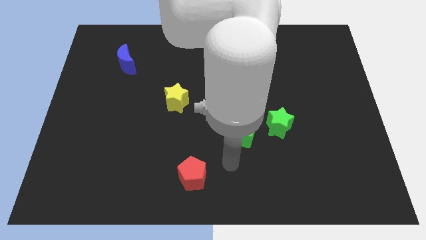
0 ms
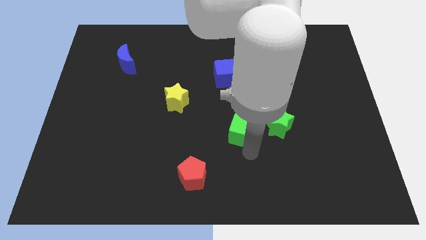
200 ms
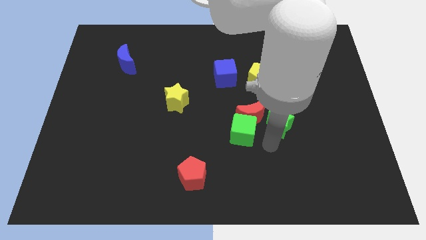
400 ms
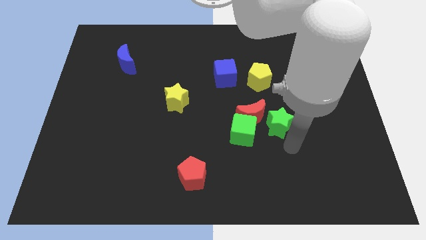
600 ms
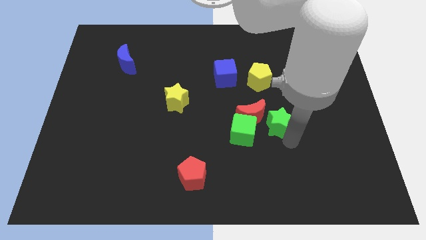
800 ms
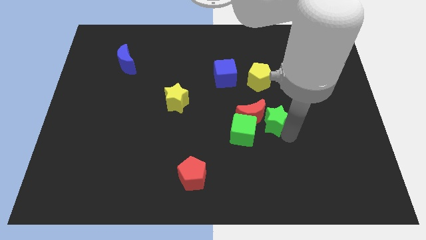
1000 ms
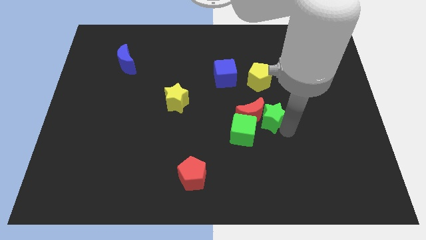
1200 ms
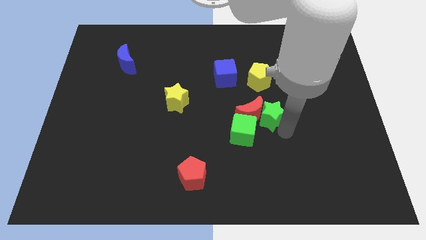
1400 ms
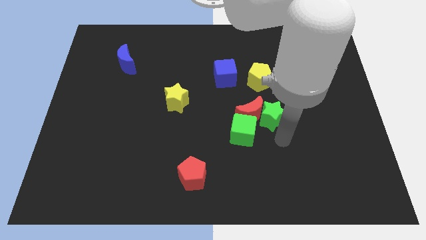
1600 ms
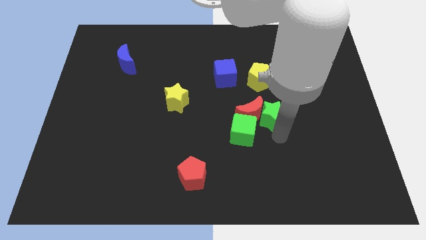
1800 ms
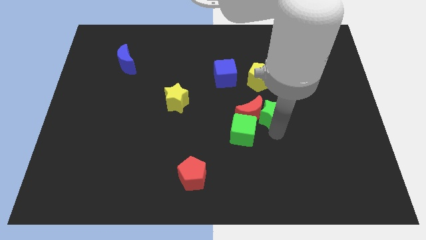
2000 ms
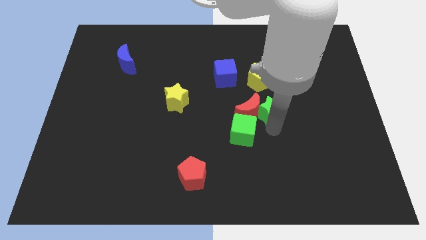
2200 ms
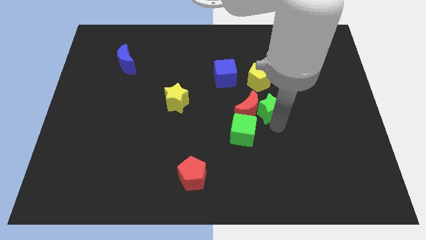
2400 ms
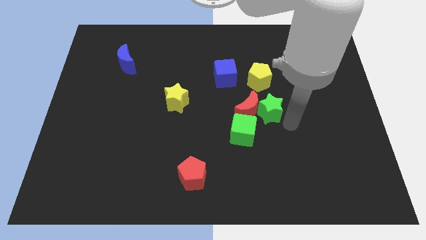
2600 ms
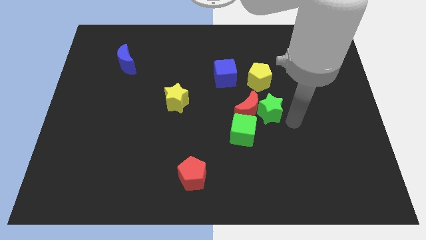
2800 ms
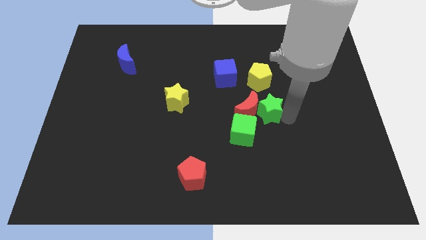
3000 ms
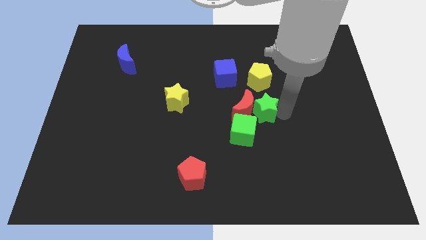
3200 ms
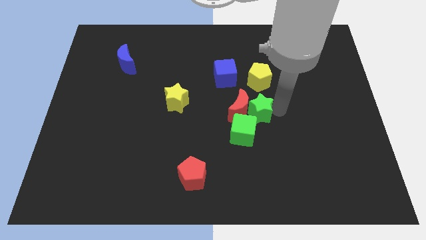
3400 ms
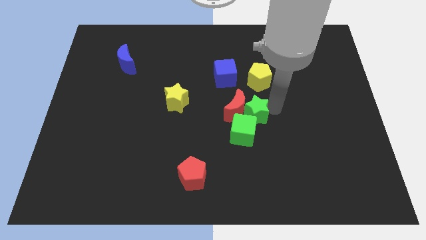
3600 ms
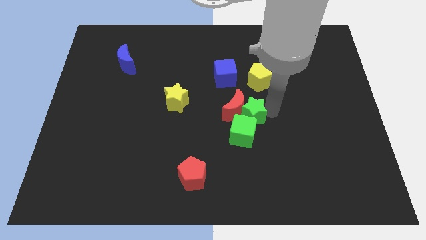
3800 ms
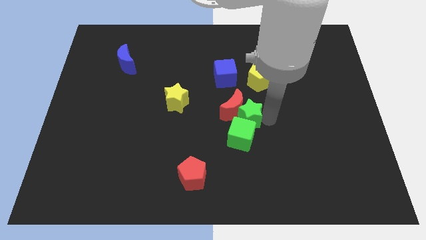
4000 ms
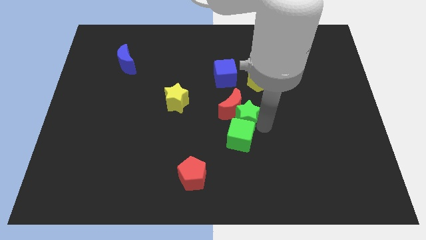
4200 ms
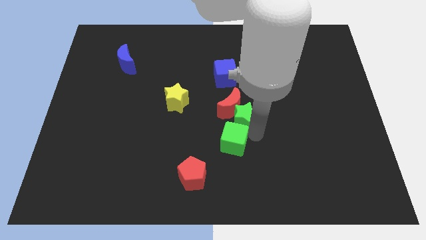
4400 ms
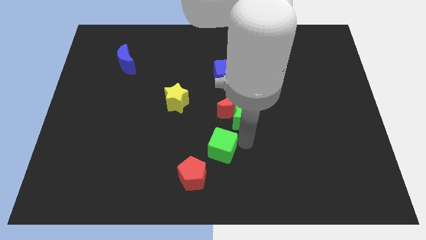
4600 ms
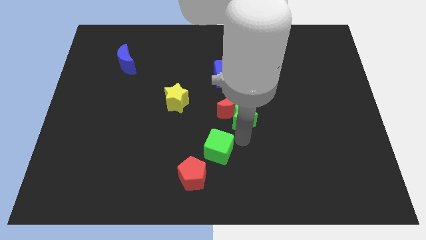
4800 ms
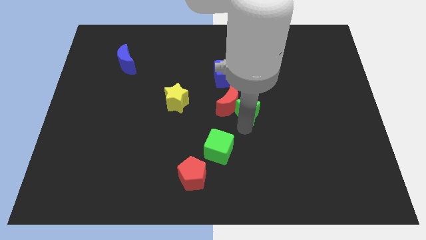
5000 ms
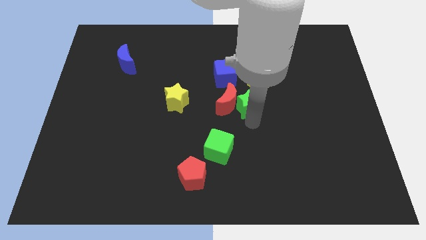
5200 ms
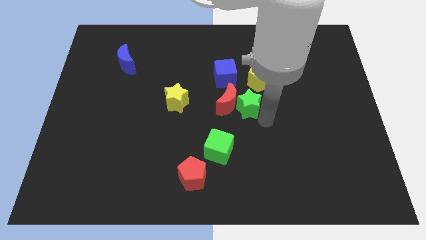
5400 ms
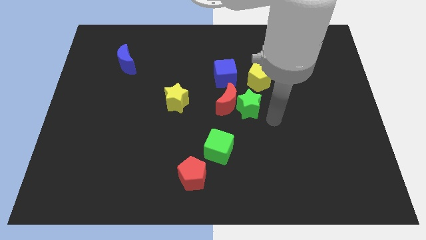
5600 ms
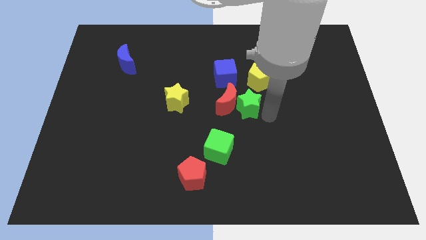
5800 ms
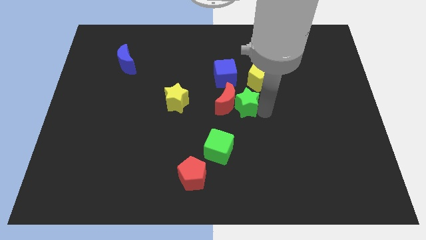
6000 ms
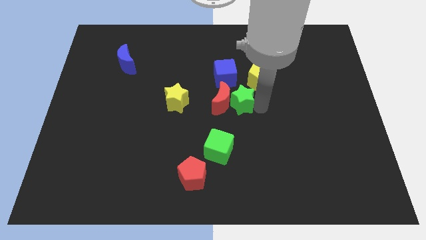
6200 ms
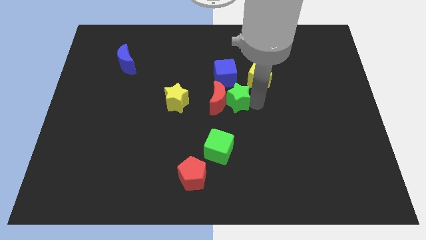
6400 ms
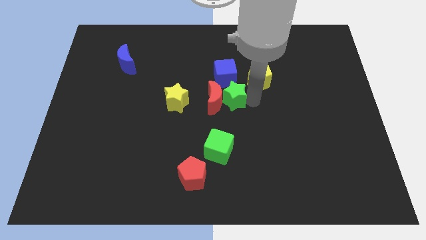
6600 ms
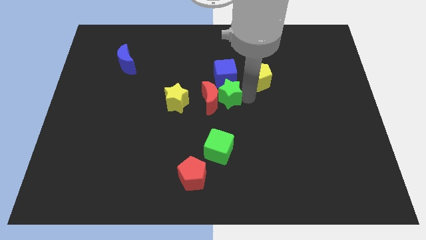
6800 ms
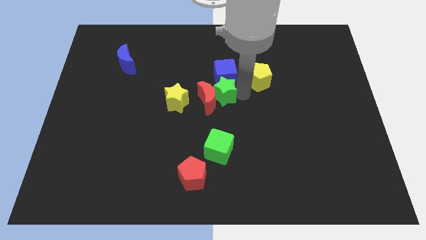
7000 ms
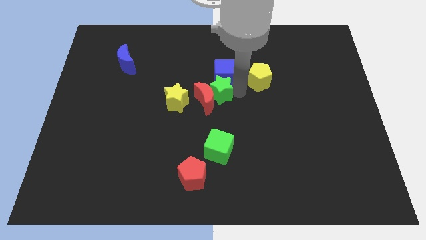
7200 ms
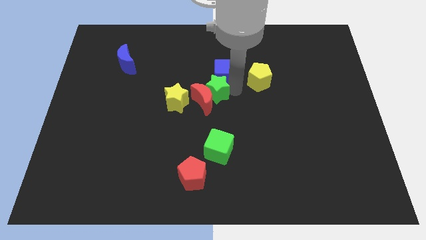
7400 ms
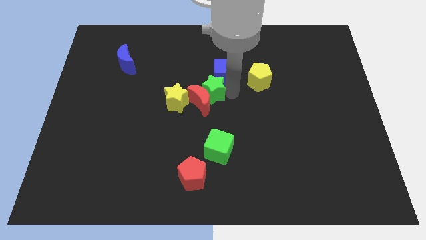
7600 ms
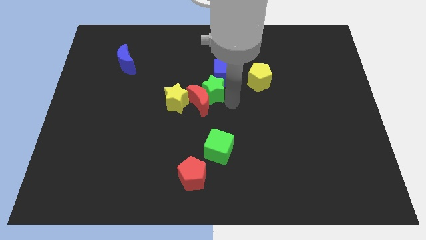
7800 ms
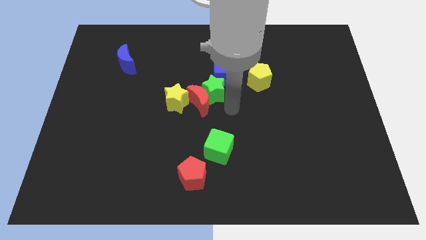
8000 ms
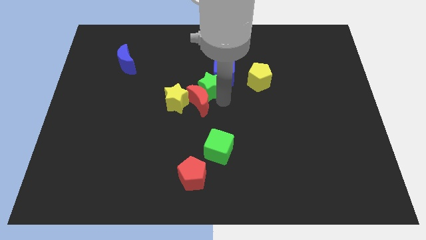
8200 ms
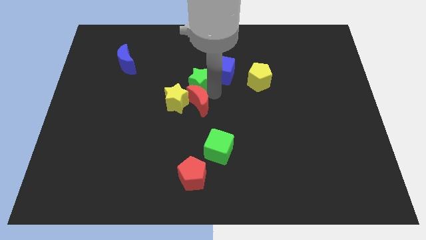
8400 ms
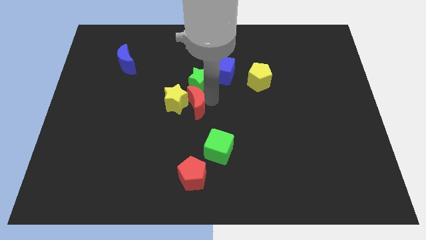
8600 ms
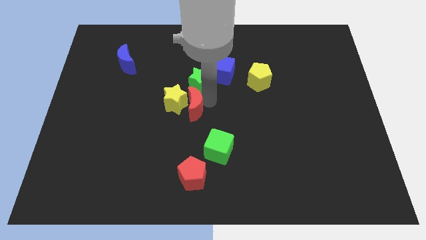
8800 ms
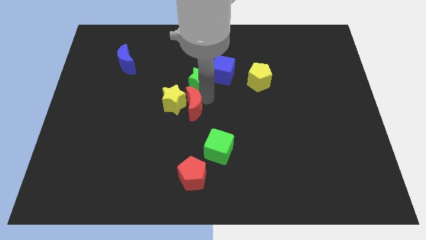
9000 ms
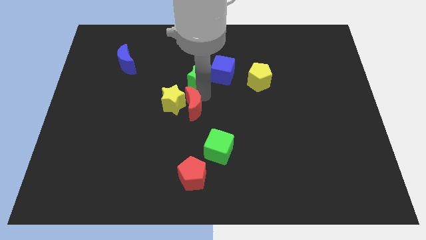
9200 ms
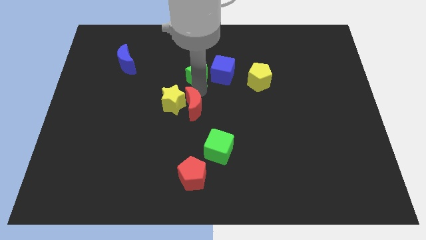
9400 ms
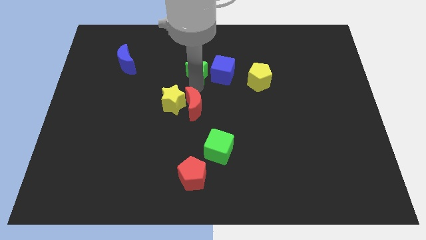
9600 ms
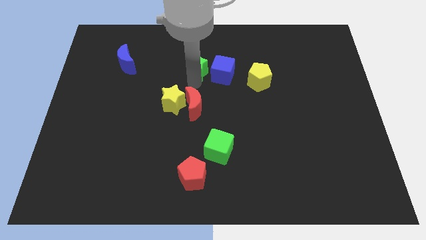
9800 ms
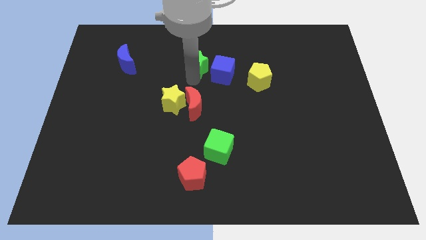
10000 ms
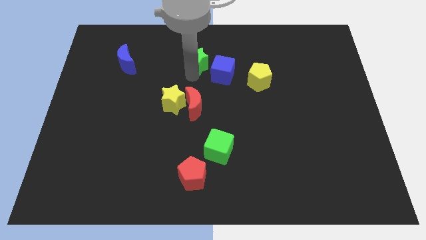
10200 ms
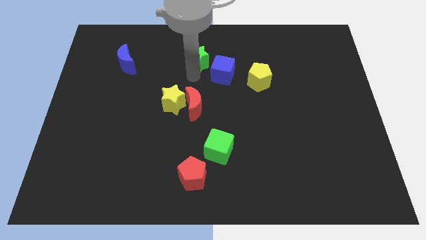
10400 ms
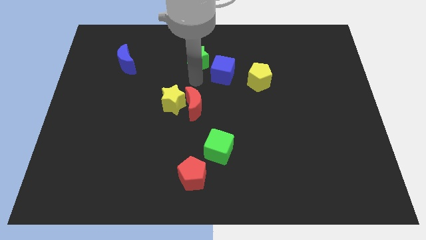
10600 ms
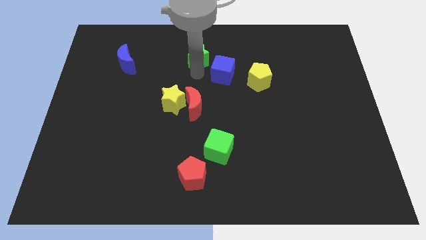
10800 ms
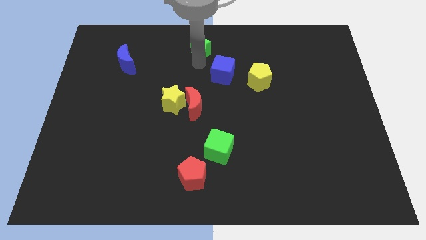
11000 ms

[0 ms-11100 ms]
slide the green star to the top

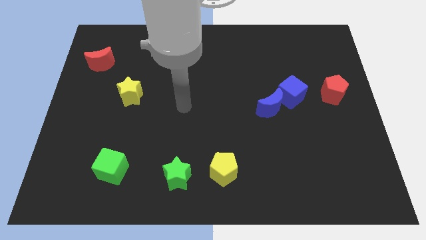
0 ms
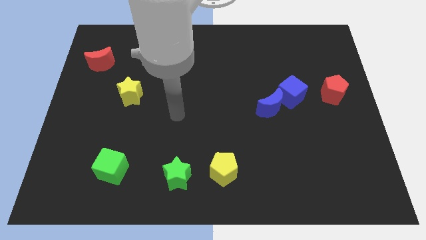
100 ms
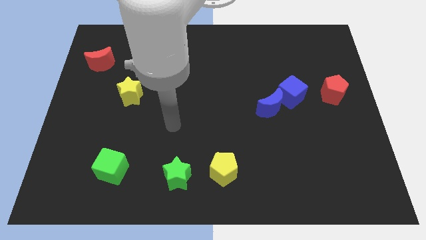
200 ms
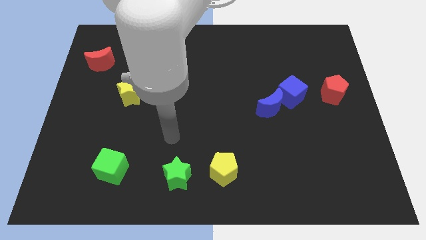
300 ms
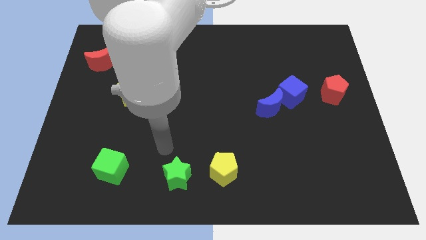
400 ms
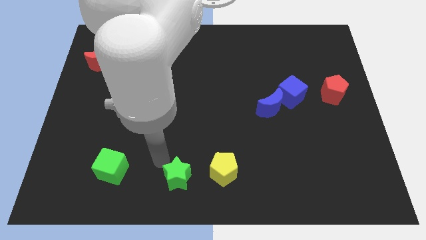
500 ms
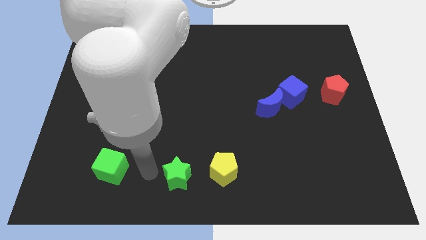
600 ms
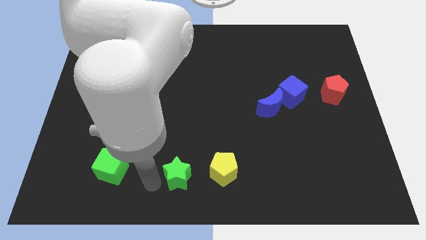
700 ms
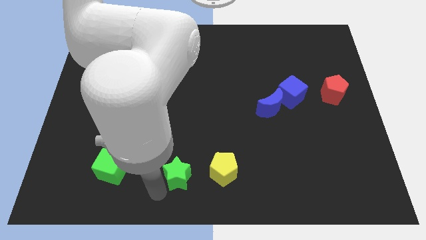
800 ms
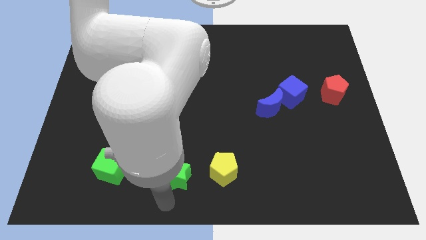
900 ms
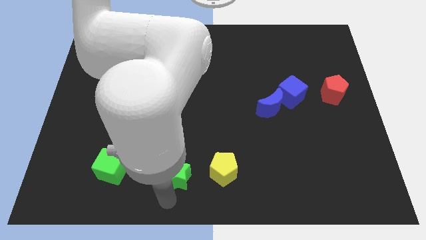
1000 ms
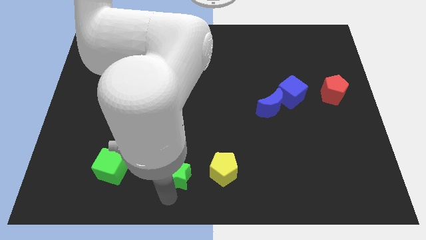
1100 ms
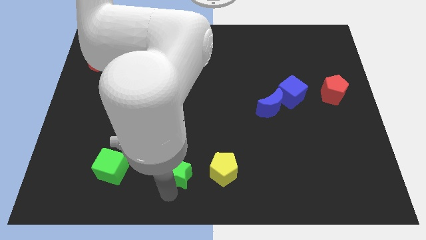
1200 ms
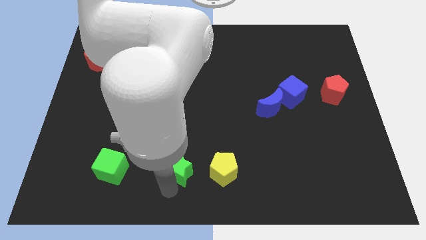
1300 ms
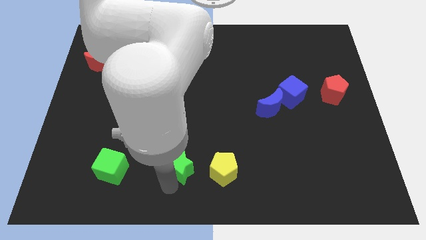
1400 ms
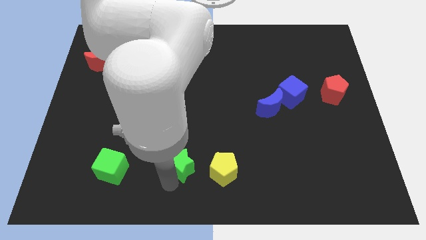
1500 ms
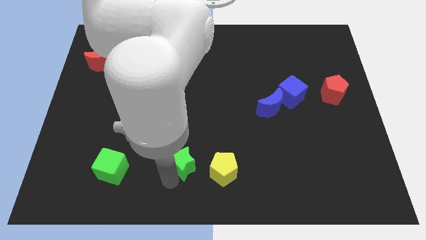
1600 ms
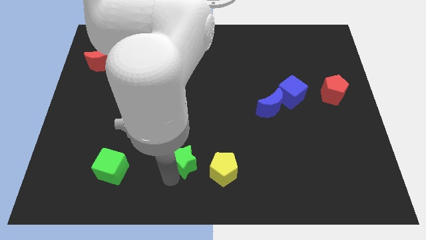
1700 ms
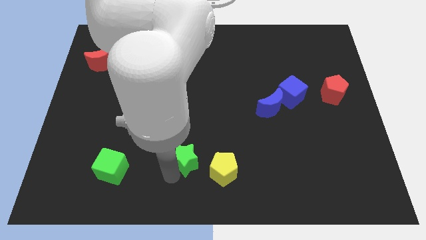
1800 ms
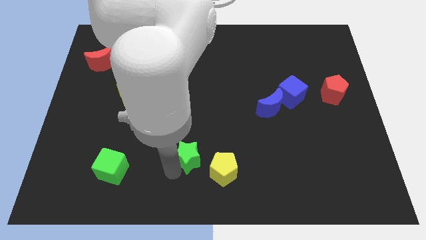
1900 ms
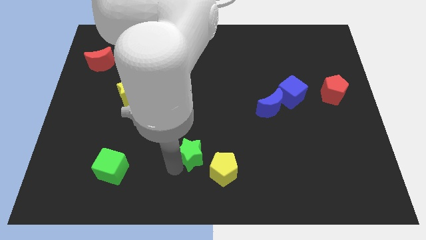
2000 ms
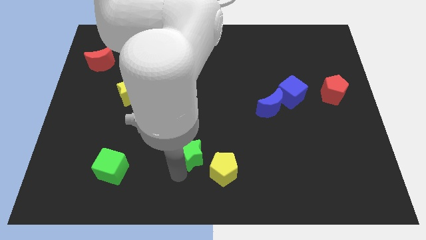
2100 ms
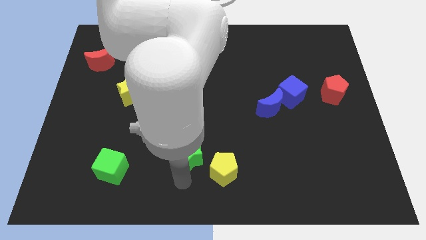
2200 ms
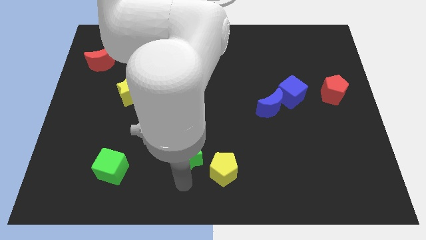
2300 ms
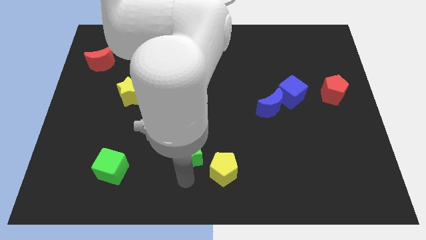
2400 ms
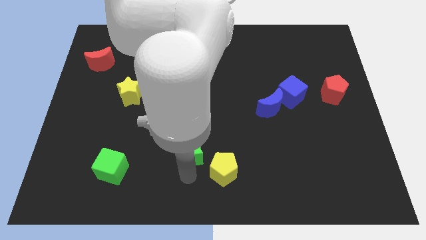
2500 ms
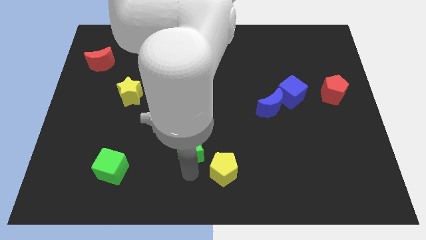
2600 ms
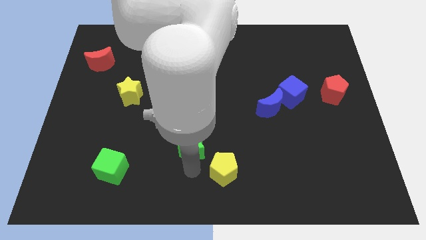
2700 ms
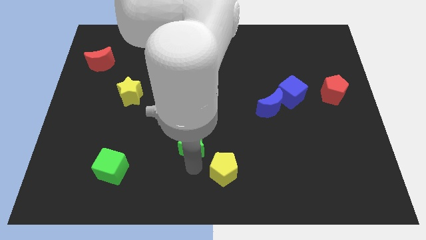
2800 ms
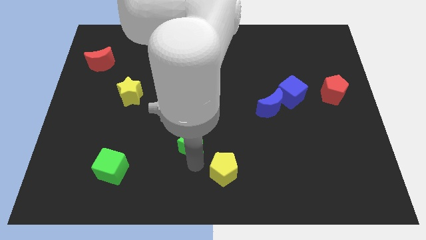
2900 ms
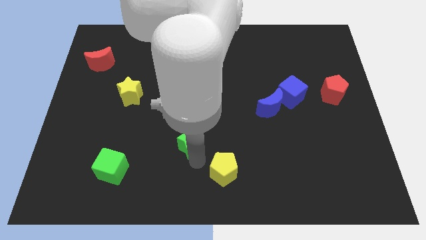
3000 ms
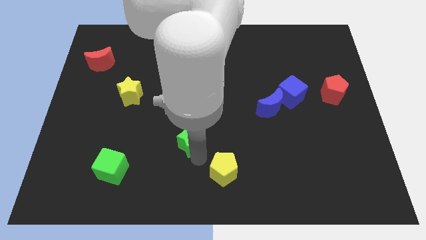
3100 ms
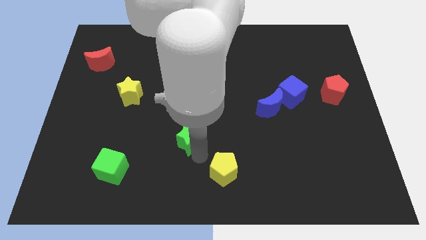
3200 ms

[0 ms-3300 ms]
move the green star to the center
